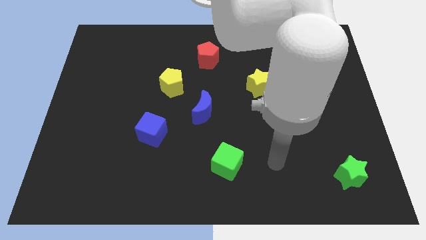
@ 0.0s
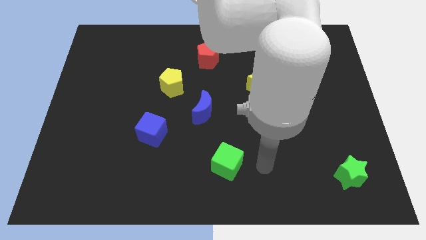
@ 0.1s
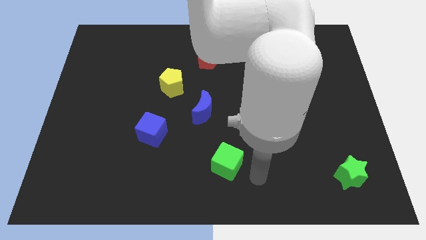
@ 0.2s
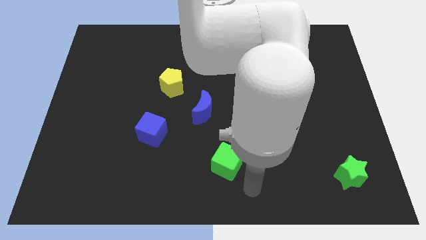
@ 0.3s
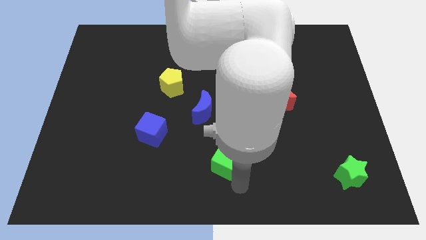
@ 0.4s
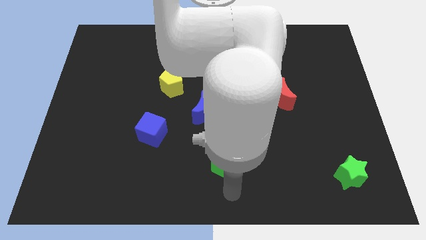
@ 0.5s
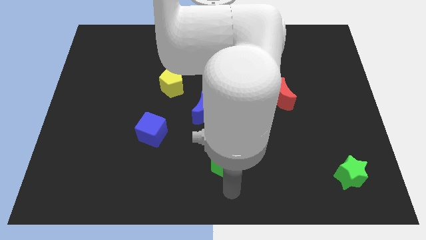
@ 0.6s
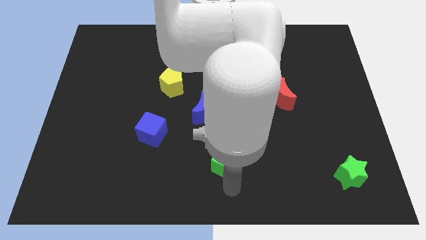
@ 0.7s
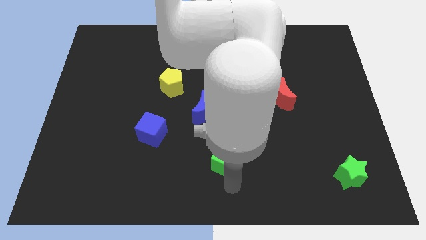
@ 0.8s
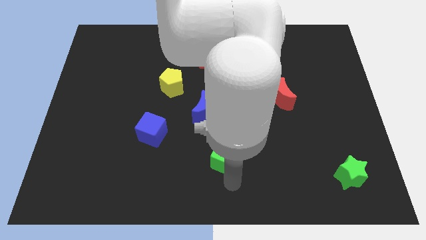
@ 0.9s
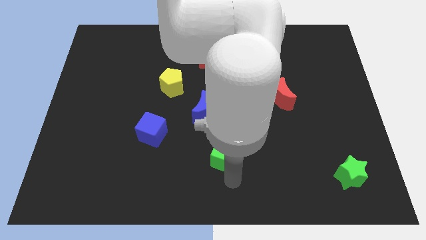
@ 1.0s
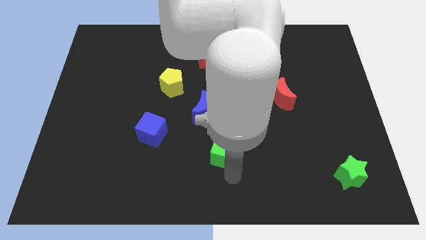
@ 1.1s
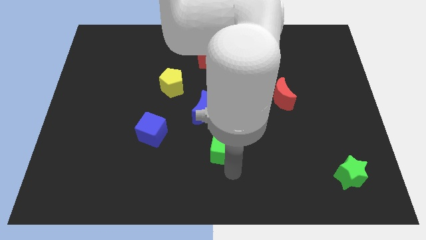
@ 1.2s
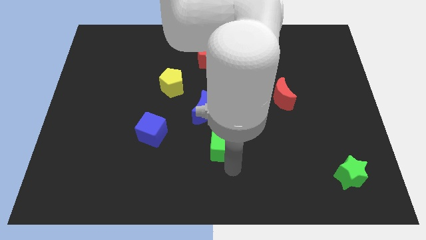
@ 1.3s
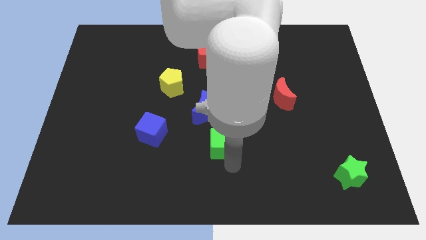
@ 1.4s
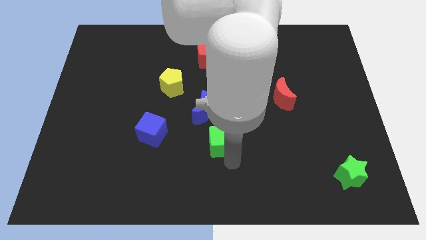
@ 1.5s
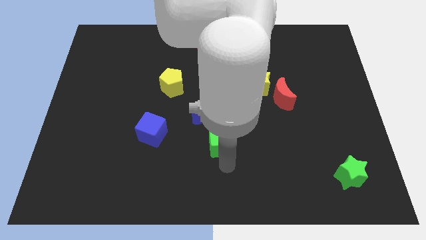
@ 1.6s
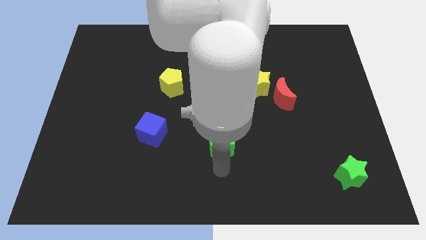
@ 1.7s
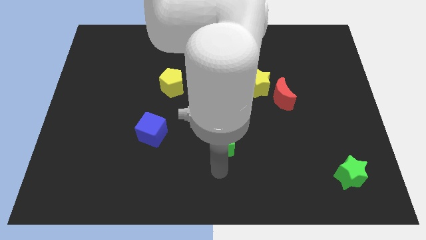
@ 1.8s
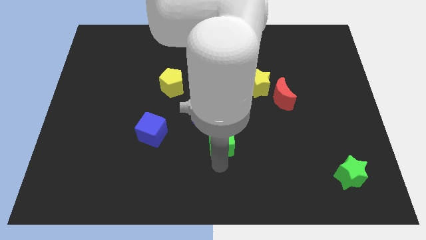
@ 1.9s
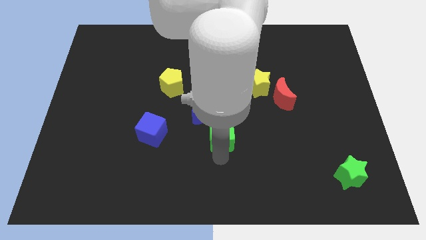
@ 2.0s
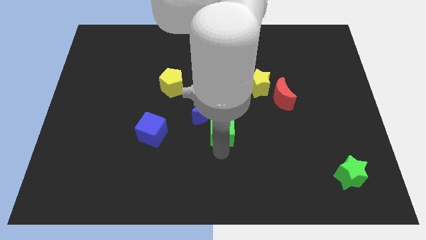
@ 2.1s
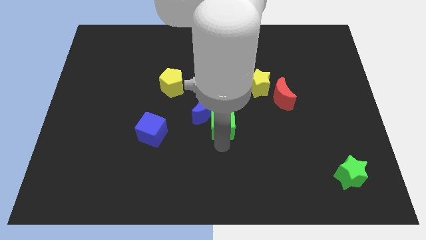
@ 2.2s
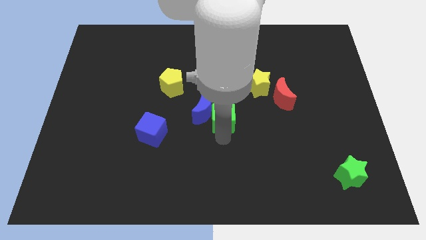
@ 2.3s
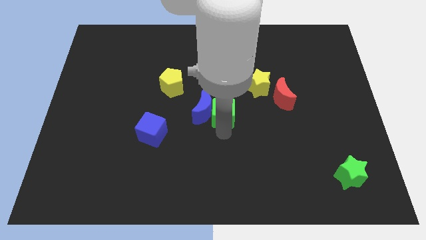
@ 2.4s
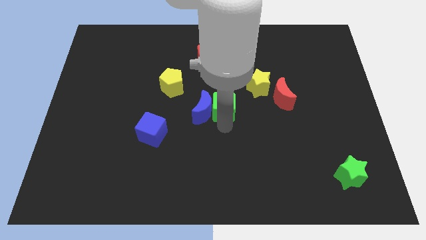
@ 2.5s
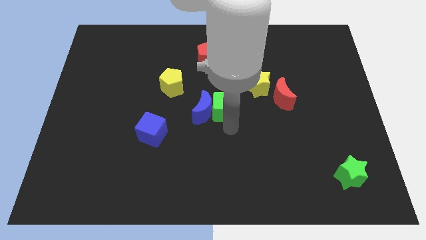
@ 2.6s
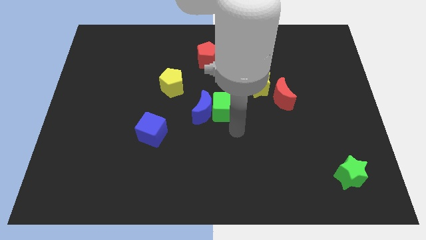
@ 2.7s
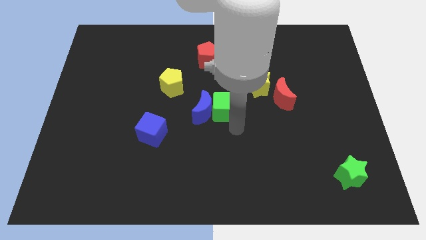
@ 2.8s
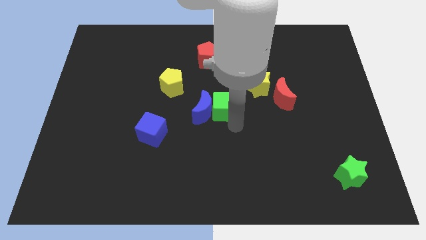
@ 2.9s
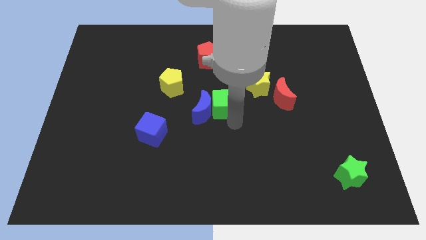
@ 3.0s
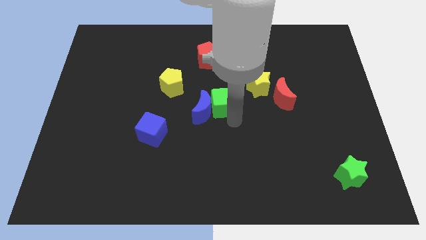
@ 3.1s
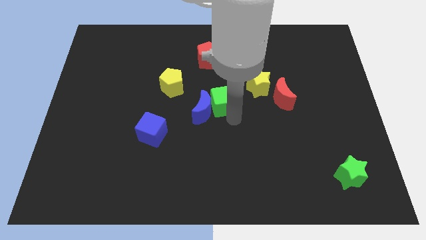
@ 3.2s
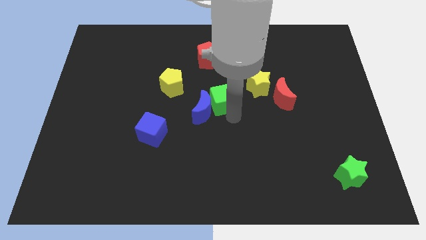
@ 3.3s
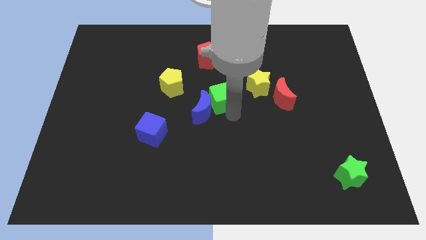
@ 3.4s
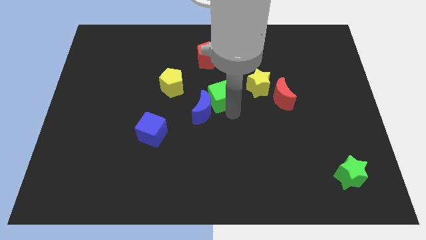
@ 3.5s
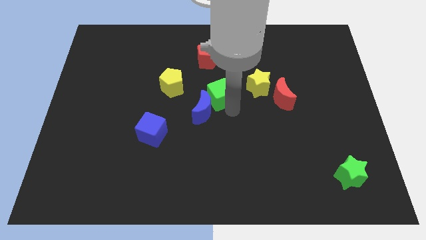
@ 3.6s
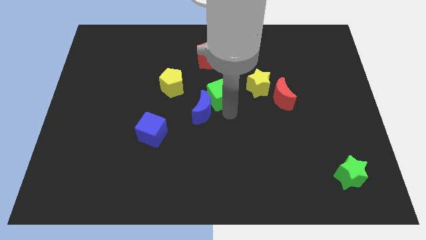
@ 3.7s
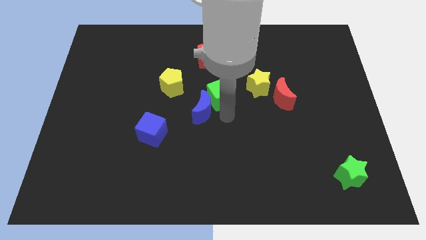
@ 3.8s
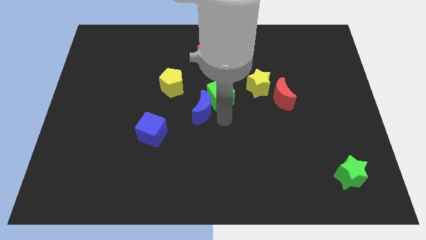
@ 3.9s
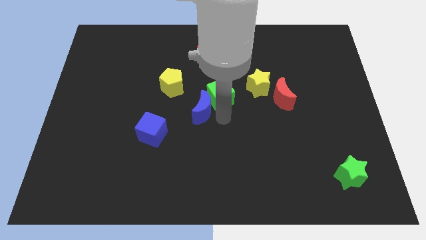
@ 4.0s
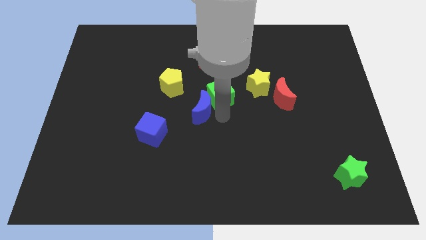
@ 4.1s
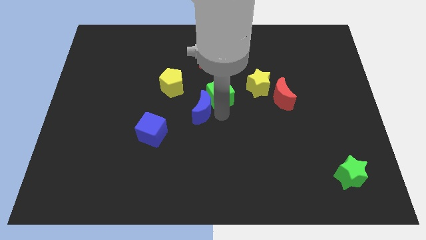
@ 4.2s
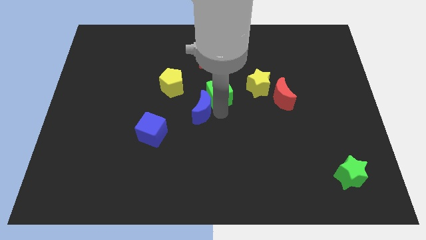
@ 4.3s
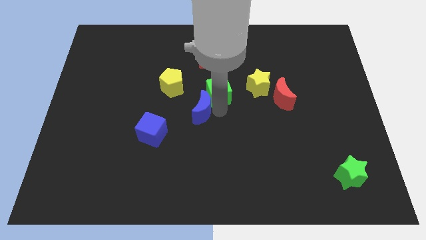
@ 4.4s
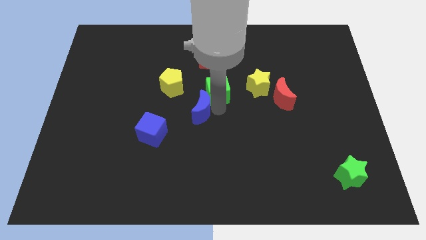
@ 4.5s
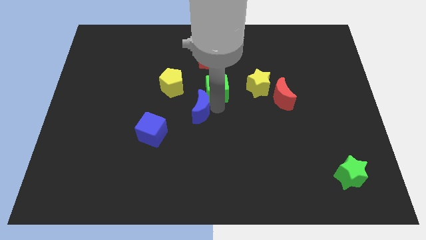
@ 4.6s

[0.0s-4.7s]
slide the green cube up

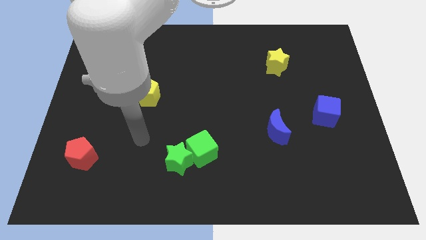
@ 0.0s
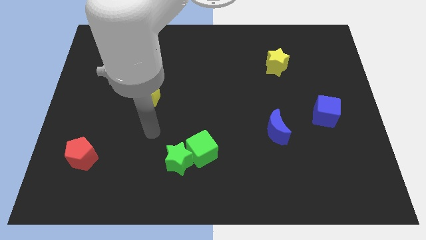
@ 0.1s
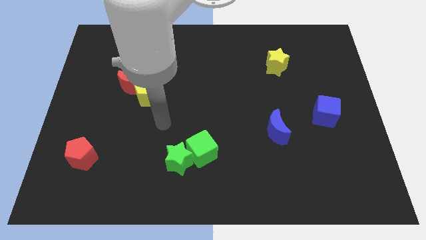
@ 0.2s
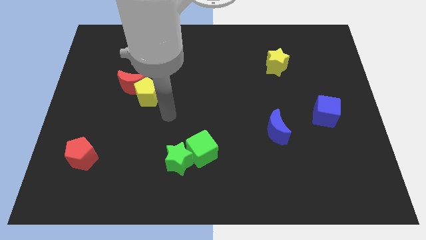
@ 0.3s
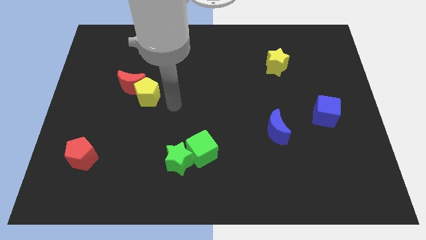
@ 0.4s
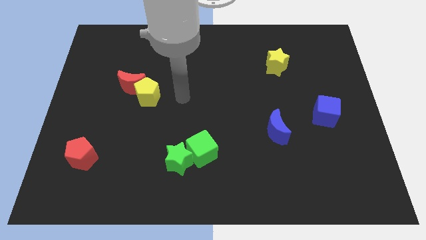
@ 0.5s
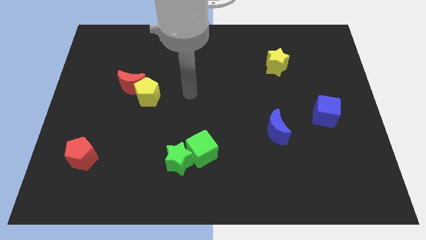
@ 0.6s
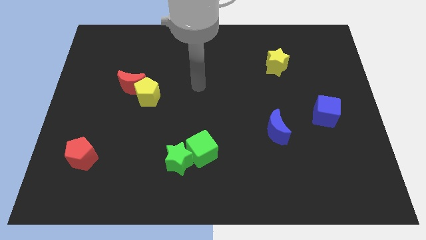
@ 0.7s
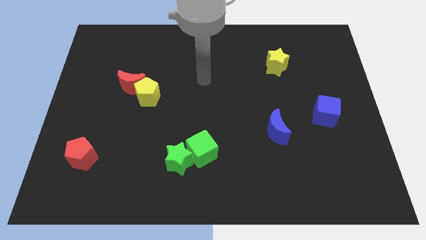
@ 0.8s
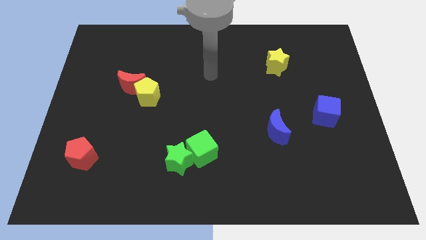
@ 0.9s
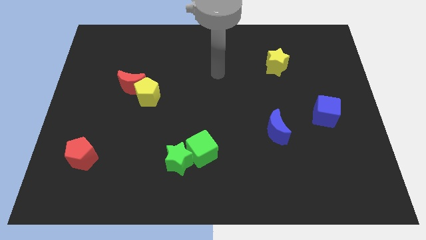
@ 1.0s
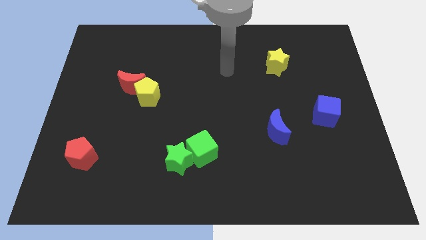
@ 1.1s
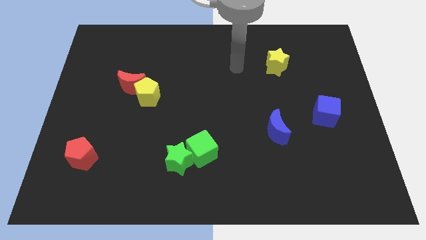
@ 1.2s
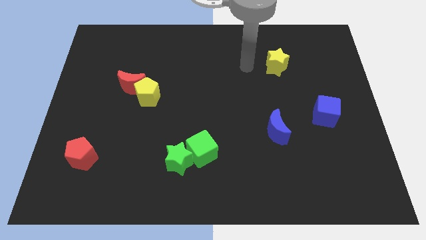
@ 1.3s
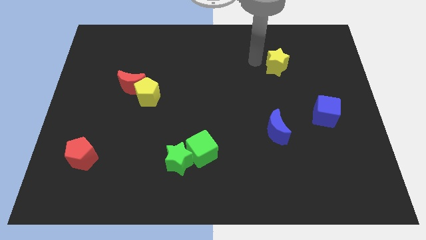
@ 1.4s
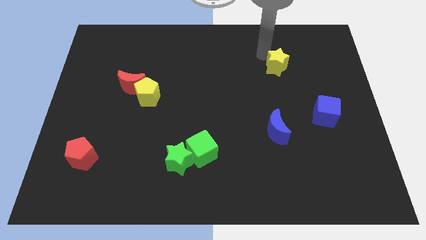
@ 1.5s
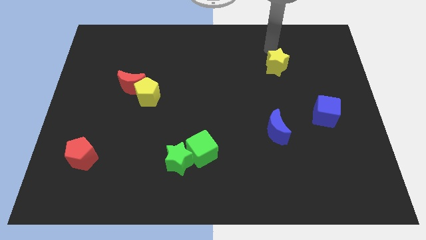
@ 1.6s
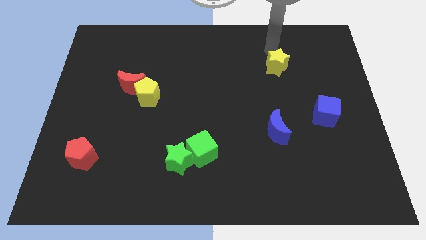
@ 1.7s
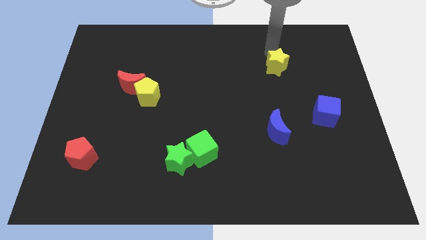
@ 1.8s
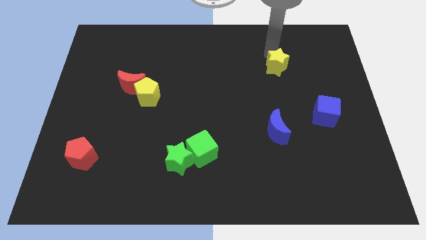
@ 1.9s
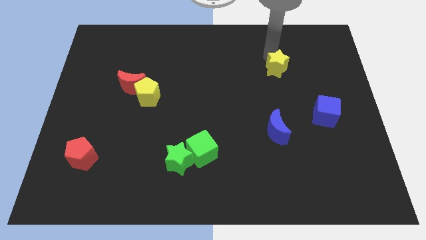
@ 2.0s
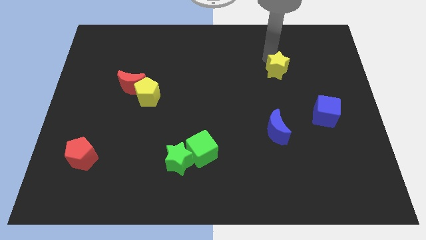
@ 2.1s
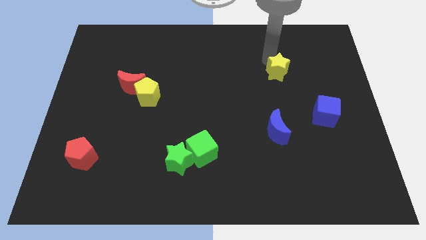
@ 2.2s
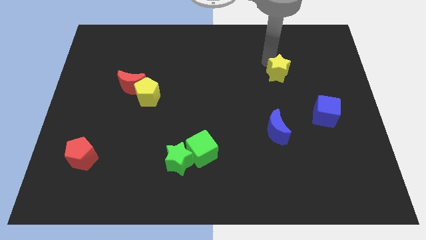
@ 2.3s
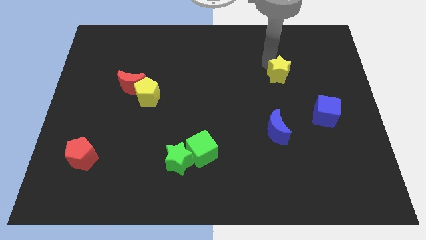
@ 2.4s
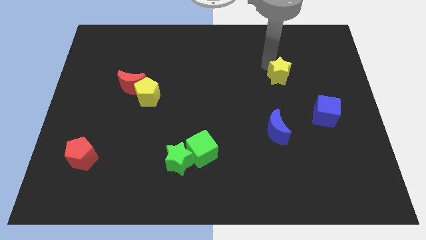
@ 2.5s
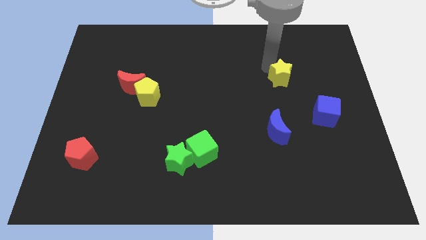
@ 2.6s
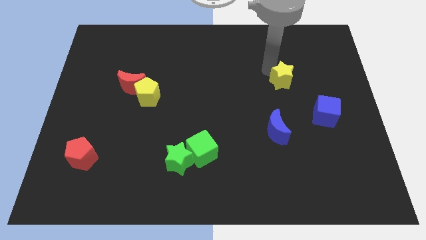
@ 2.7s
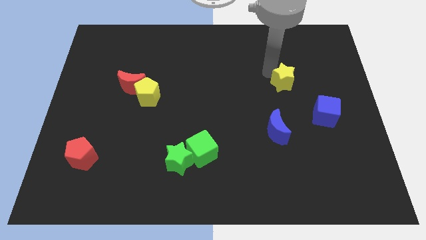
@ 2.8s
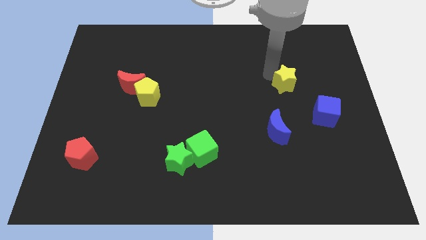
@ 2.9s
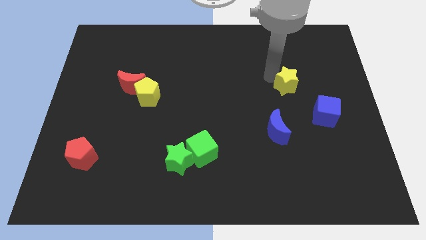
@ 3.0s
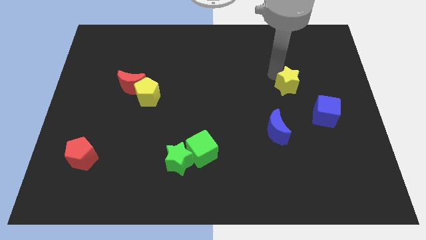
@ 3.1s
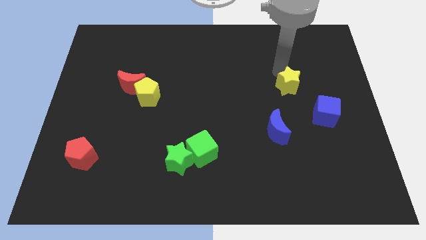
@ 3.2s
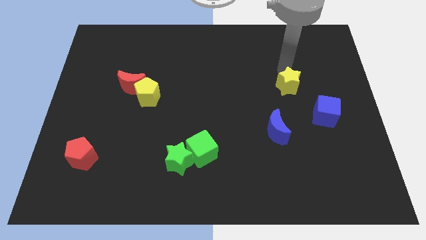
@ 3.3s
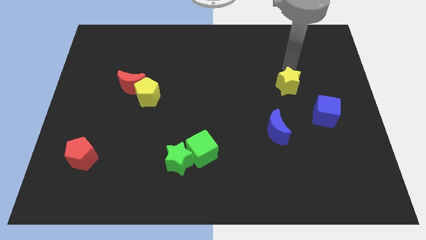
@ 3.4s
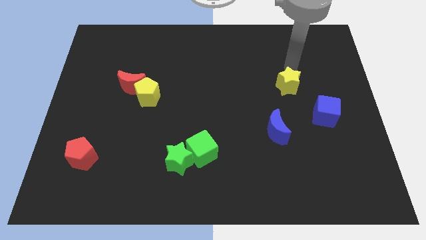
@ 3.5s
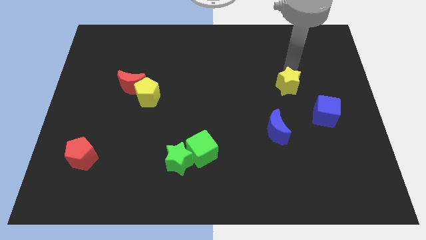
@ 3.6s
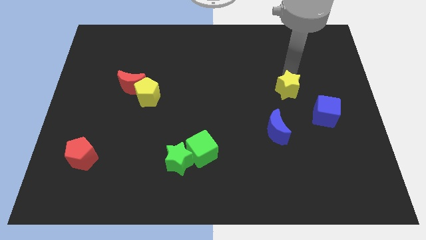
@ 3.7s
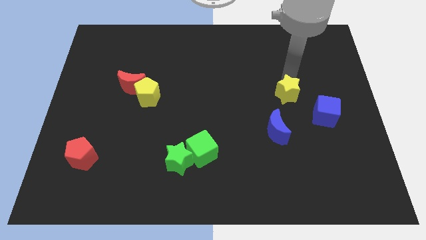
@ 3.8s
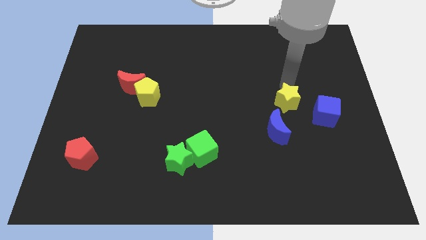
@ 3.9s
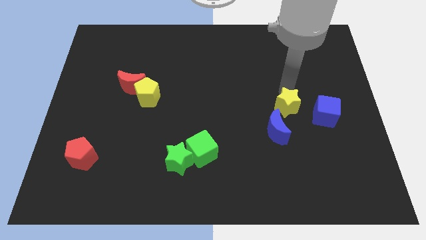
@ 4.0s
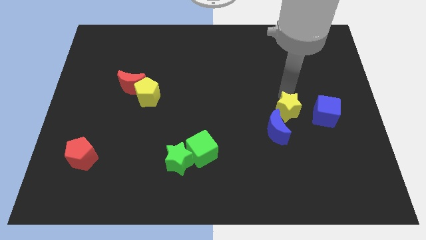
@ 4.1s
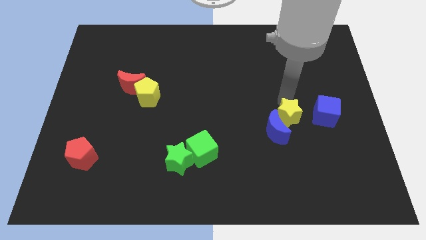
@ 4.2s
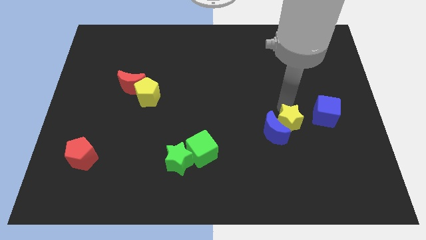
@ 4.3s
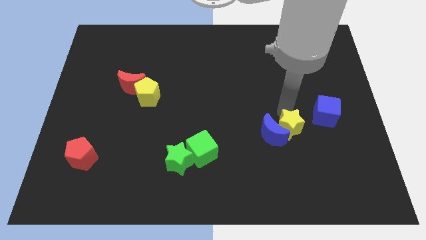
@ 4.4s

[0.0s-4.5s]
move the yellow star down
